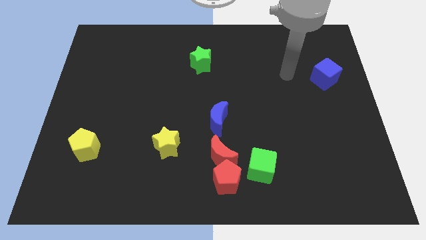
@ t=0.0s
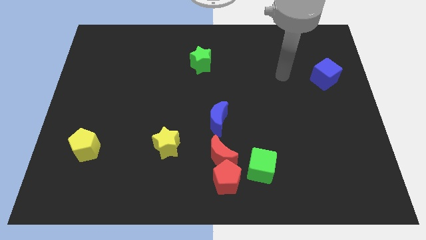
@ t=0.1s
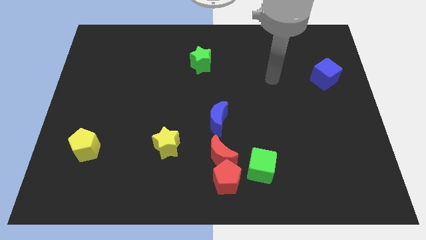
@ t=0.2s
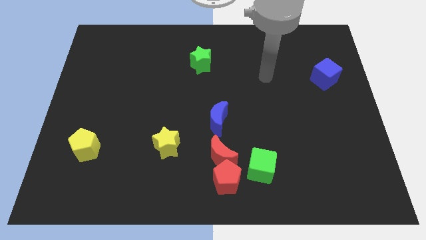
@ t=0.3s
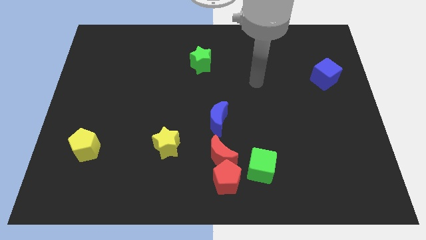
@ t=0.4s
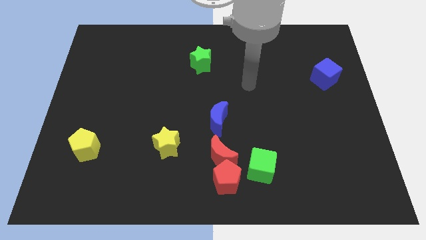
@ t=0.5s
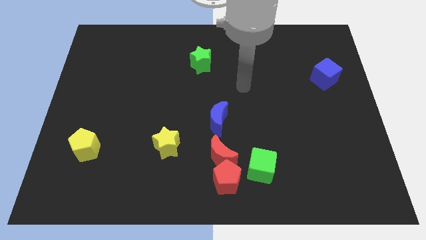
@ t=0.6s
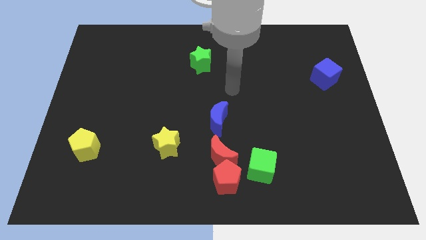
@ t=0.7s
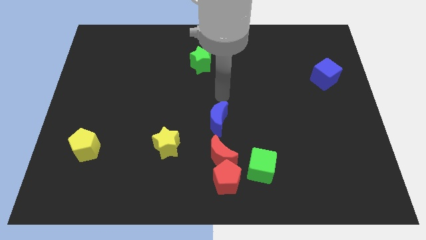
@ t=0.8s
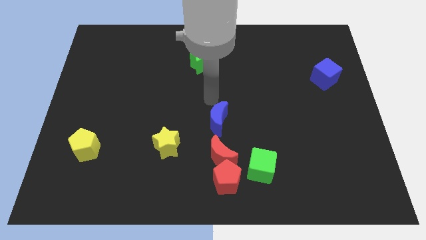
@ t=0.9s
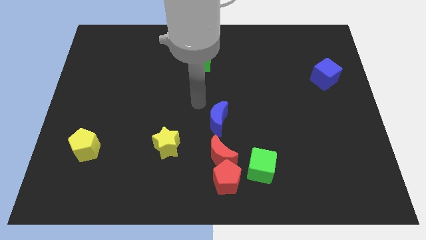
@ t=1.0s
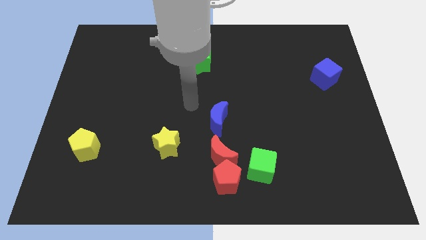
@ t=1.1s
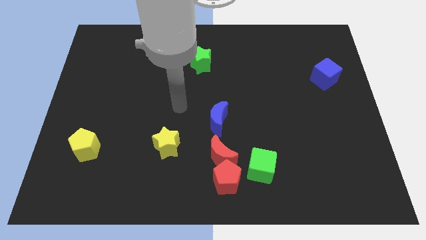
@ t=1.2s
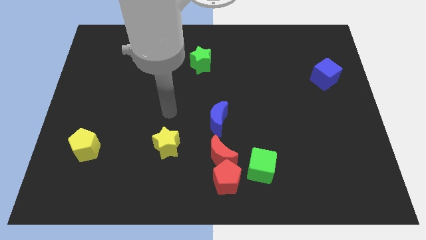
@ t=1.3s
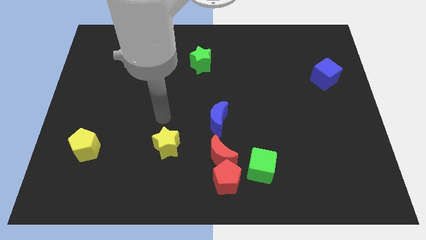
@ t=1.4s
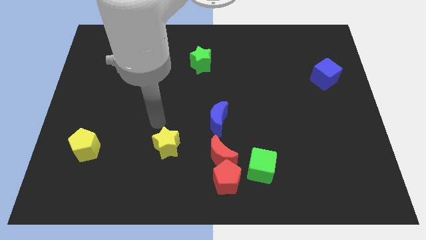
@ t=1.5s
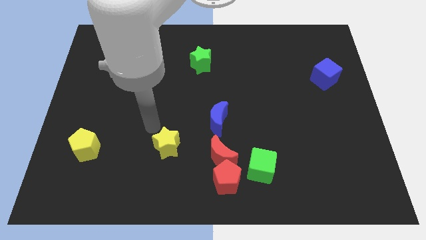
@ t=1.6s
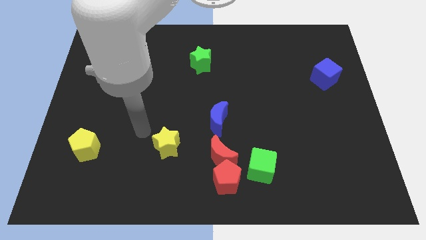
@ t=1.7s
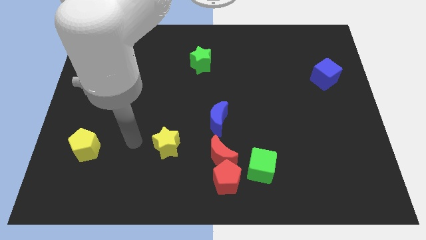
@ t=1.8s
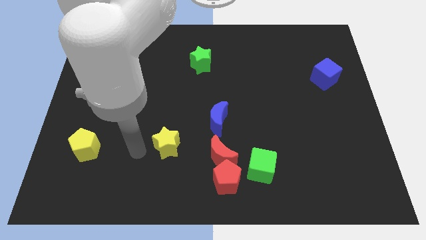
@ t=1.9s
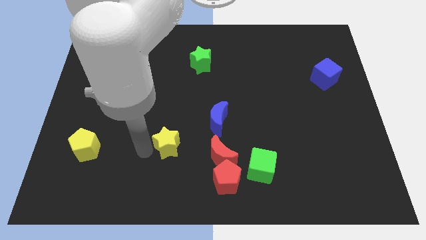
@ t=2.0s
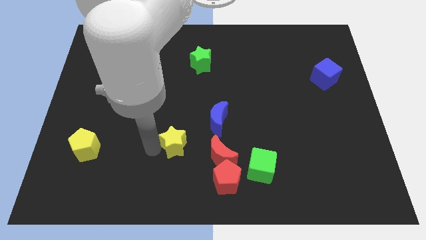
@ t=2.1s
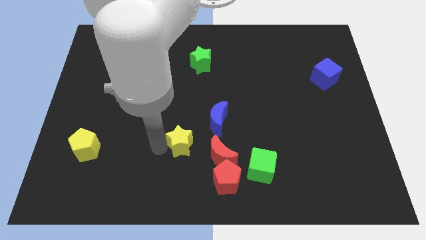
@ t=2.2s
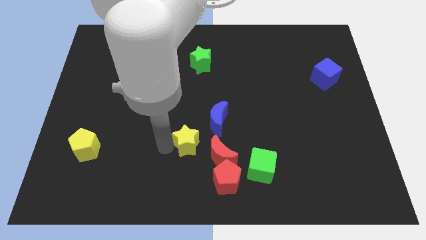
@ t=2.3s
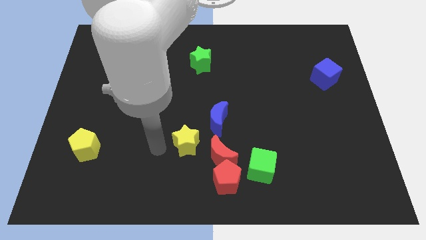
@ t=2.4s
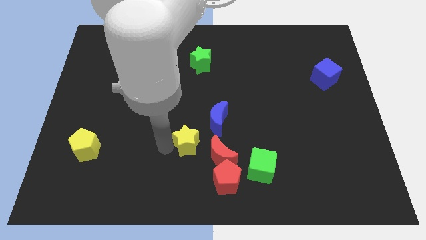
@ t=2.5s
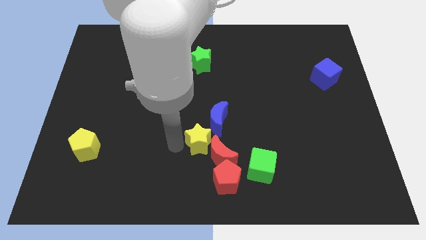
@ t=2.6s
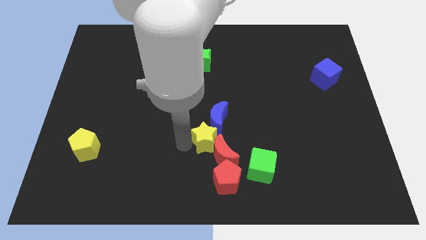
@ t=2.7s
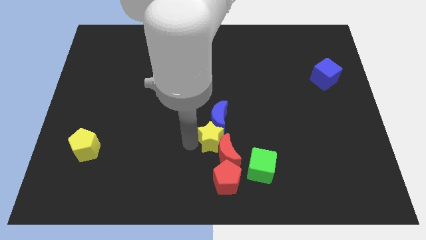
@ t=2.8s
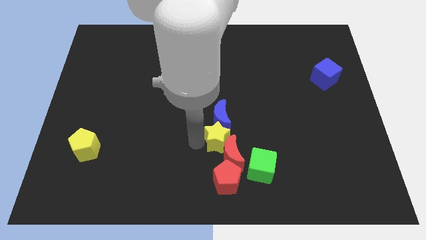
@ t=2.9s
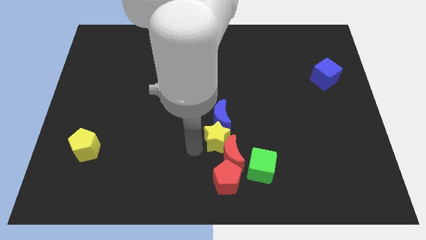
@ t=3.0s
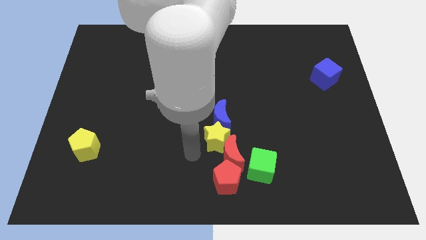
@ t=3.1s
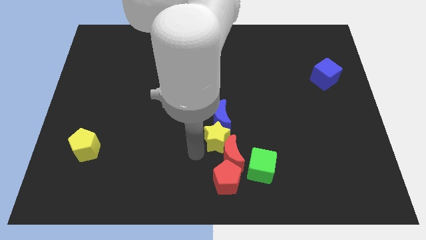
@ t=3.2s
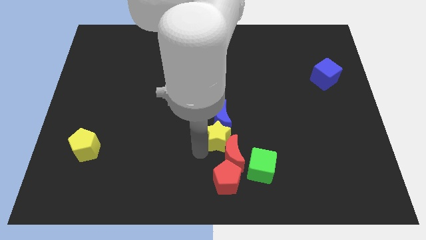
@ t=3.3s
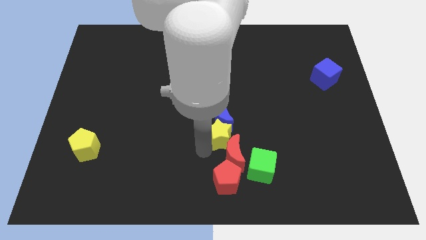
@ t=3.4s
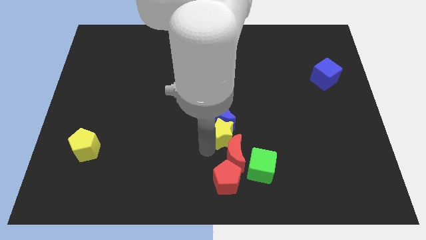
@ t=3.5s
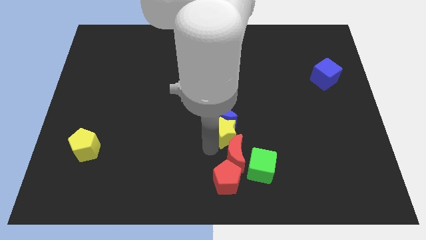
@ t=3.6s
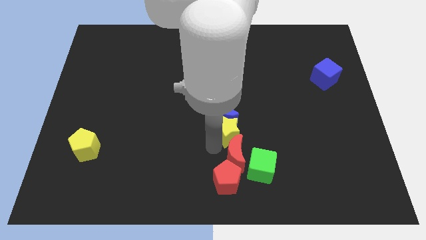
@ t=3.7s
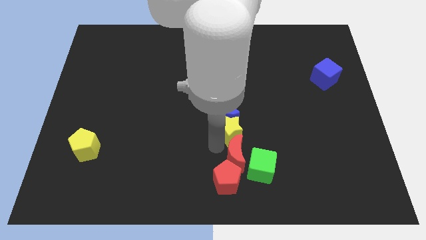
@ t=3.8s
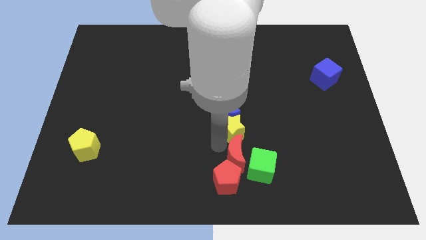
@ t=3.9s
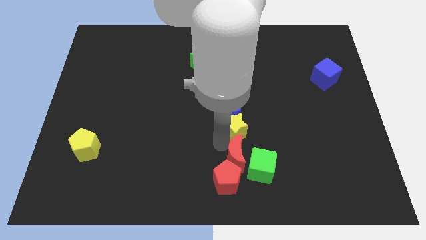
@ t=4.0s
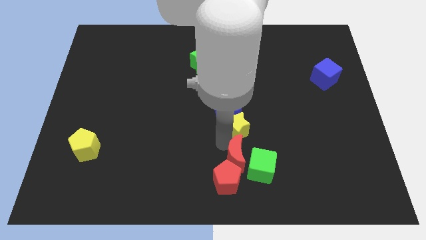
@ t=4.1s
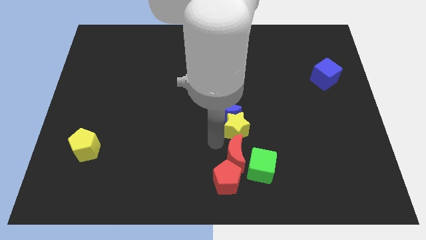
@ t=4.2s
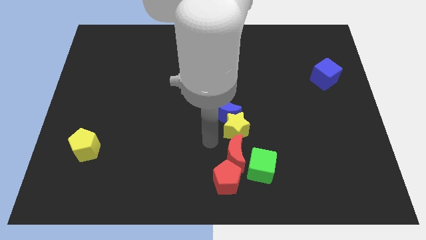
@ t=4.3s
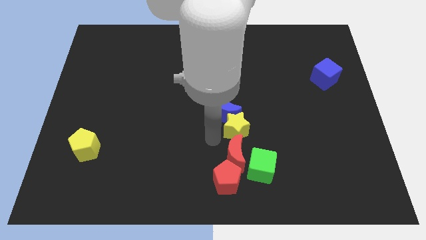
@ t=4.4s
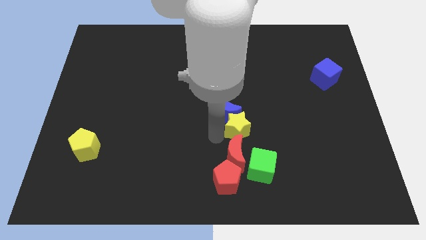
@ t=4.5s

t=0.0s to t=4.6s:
slide the yellow star right of the blue moon

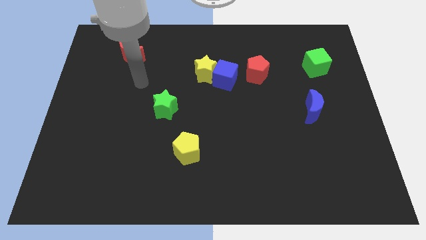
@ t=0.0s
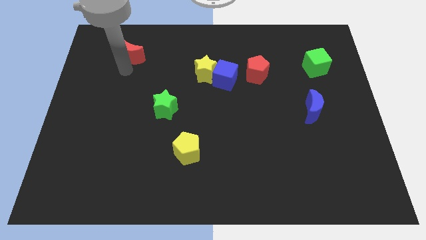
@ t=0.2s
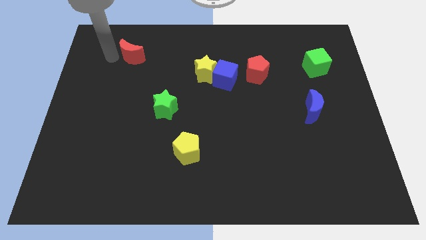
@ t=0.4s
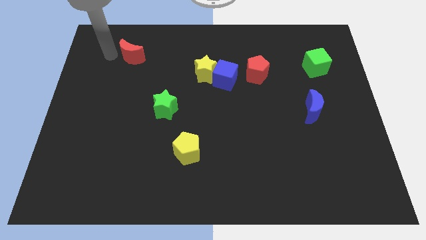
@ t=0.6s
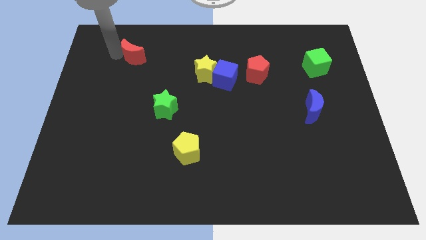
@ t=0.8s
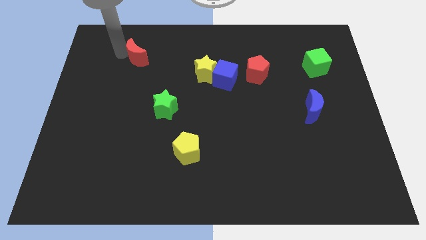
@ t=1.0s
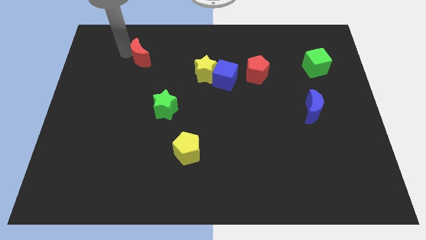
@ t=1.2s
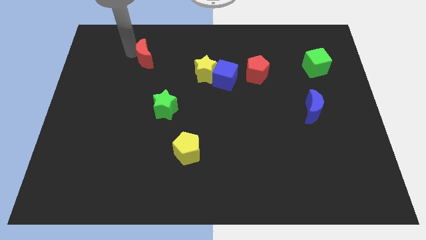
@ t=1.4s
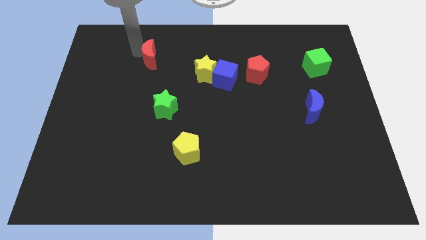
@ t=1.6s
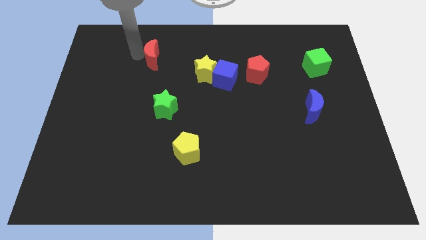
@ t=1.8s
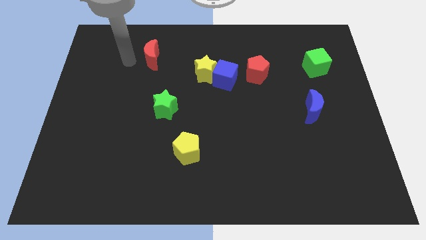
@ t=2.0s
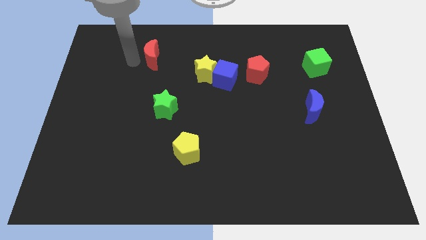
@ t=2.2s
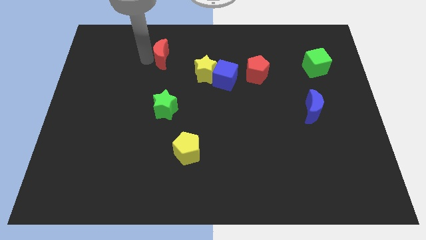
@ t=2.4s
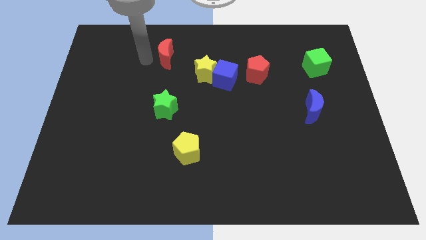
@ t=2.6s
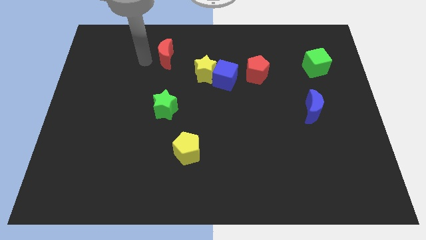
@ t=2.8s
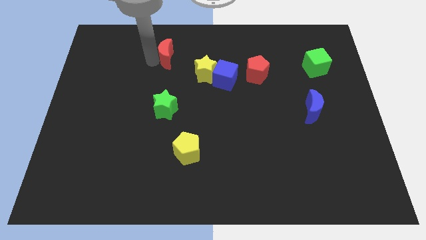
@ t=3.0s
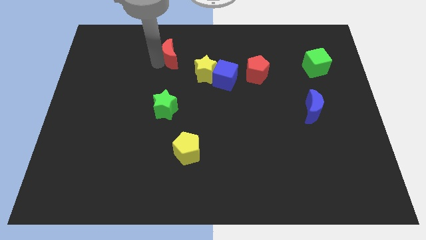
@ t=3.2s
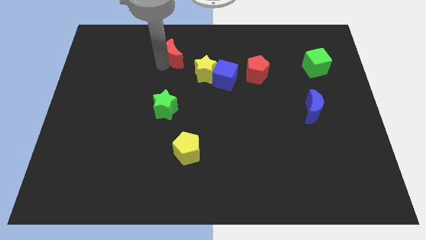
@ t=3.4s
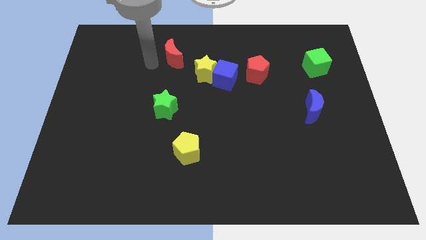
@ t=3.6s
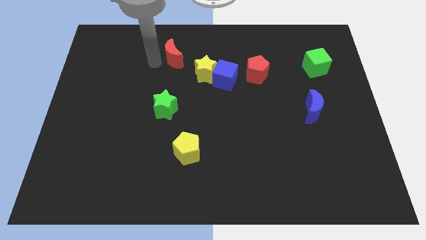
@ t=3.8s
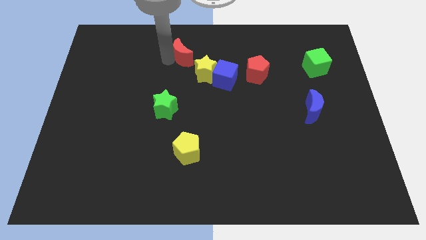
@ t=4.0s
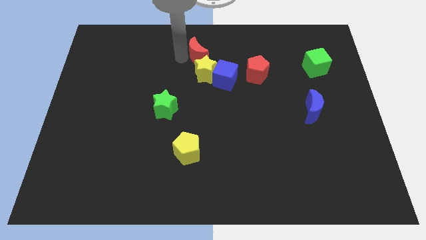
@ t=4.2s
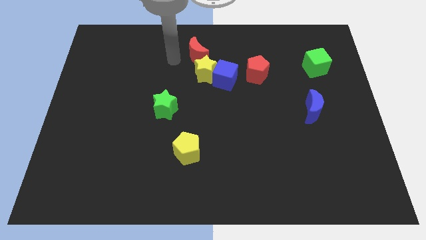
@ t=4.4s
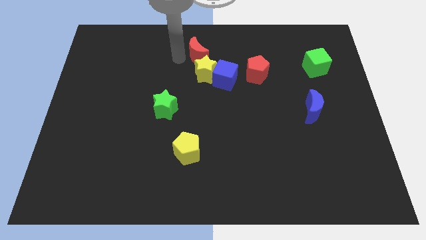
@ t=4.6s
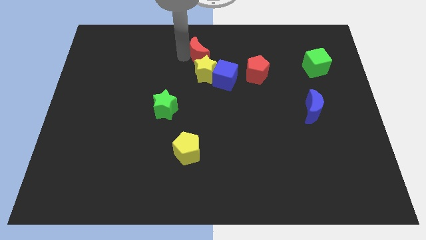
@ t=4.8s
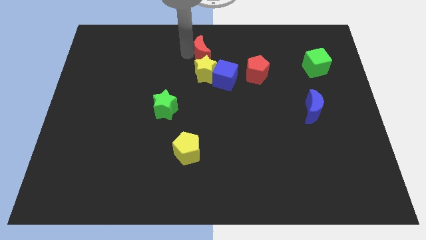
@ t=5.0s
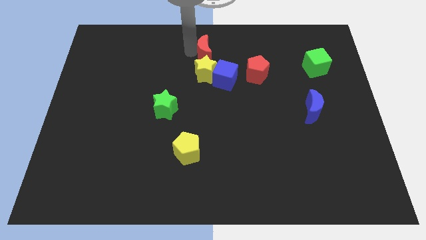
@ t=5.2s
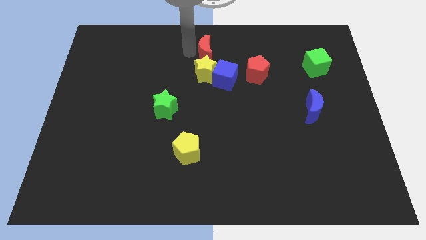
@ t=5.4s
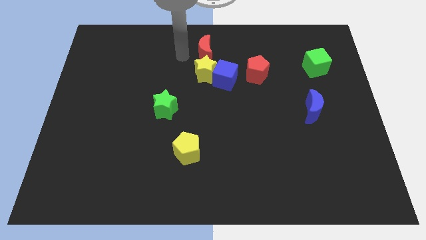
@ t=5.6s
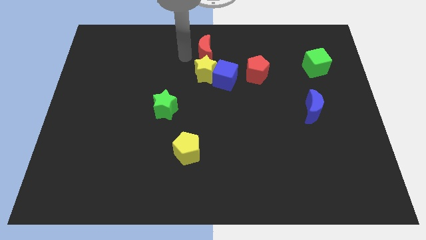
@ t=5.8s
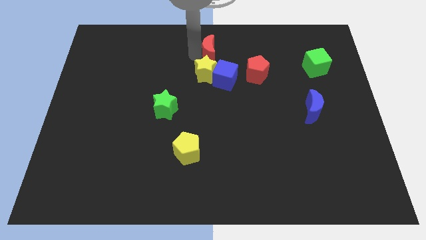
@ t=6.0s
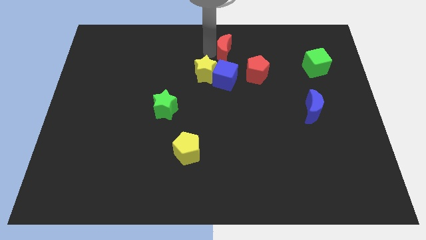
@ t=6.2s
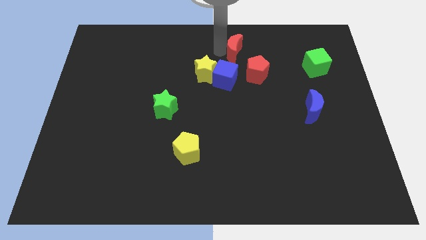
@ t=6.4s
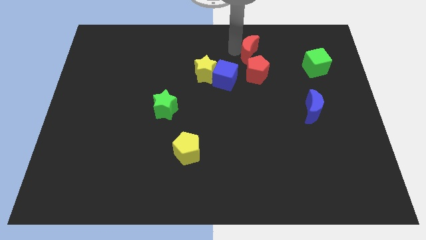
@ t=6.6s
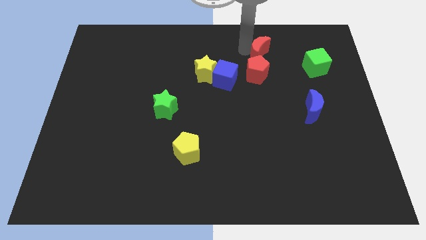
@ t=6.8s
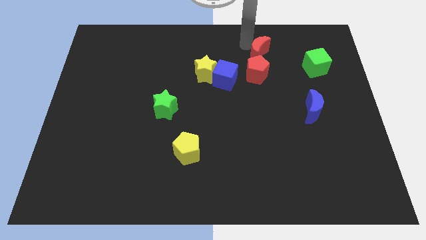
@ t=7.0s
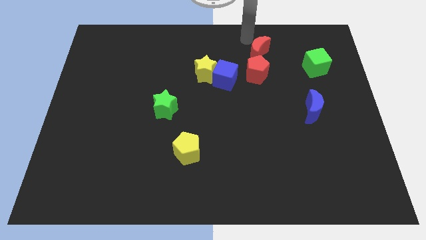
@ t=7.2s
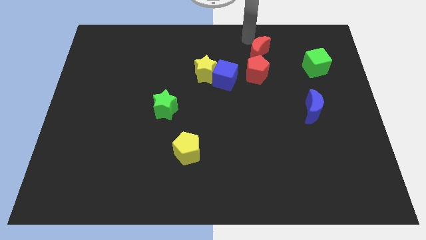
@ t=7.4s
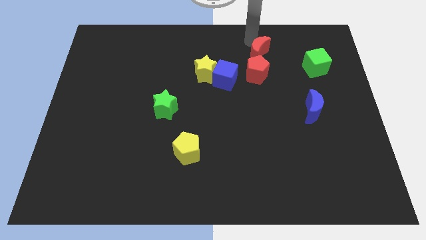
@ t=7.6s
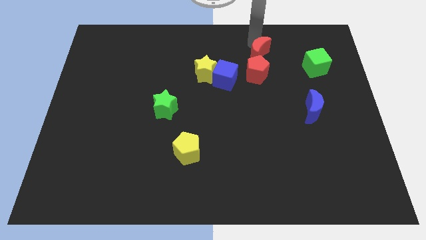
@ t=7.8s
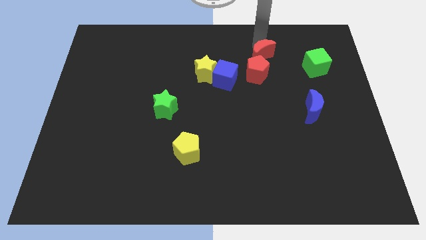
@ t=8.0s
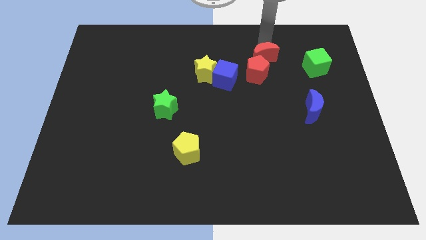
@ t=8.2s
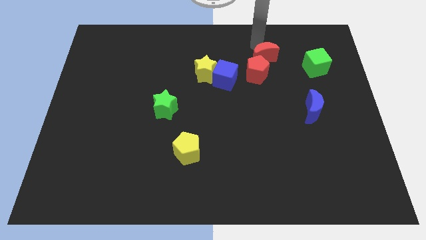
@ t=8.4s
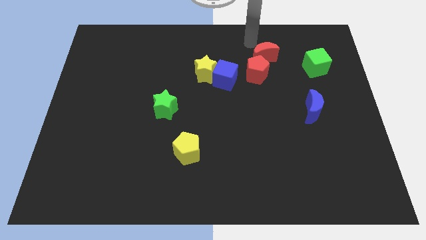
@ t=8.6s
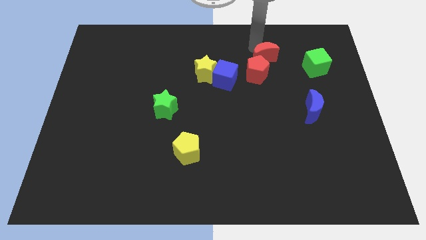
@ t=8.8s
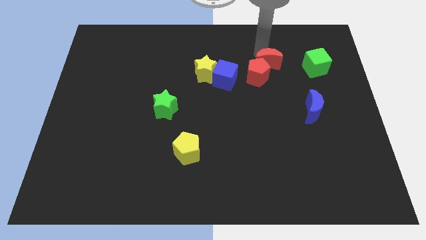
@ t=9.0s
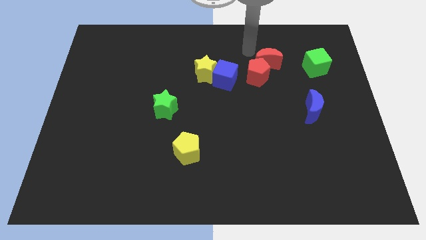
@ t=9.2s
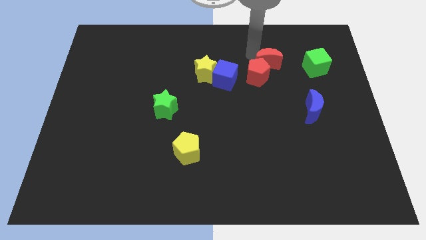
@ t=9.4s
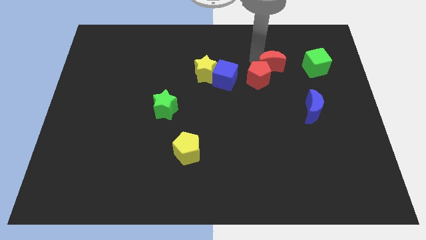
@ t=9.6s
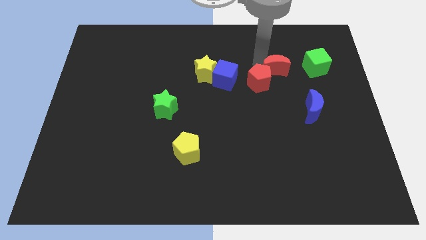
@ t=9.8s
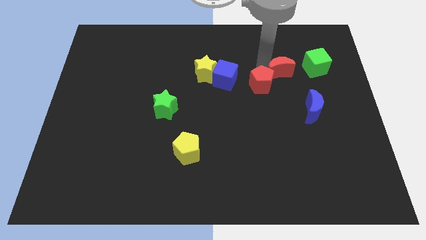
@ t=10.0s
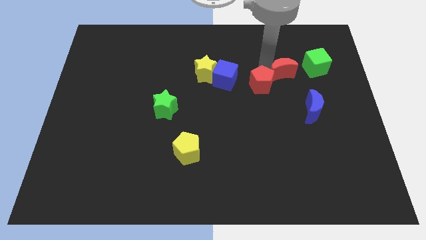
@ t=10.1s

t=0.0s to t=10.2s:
push the red moon to the bottom left side of the green cube
